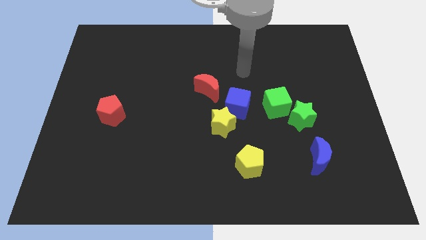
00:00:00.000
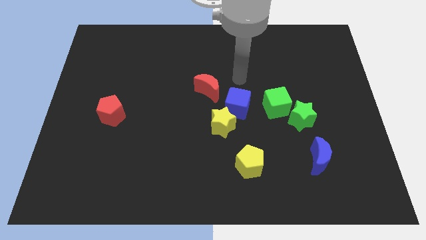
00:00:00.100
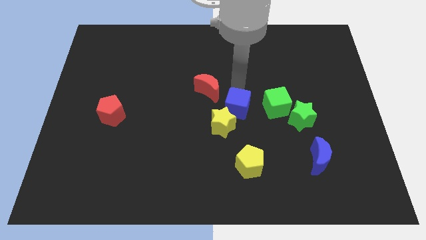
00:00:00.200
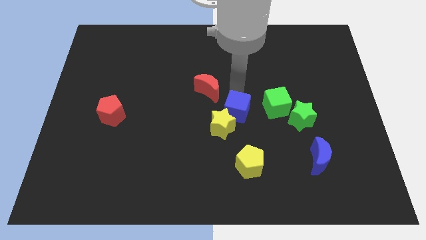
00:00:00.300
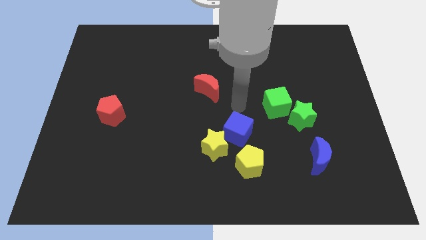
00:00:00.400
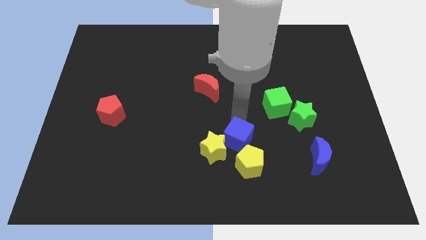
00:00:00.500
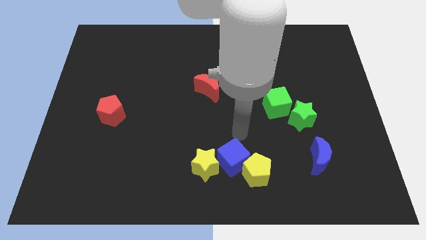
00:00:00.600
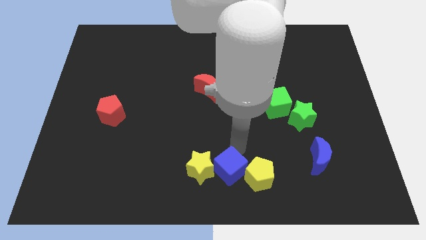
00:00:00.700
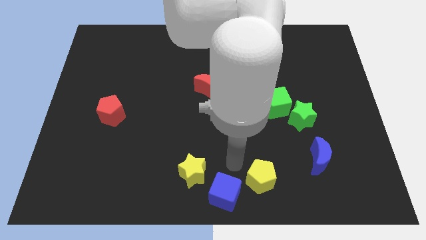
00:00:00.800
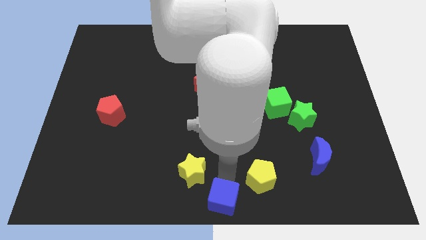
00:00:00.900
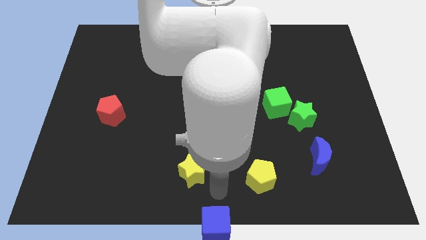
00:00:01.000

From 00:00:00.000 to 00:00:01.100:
pull the yellow star apart from the blue cube

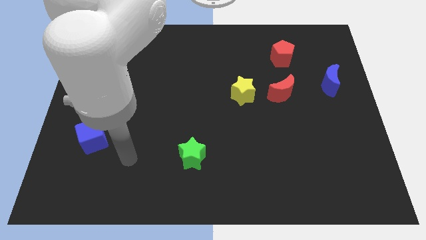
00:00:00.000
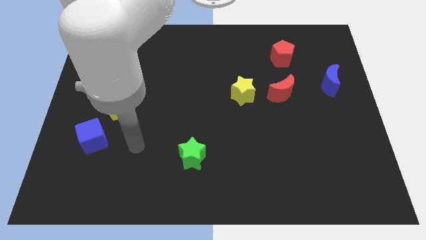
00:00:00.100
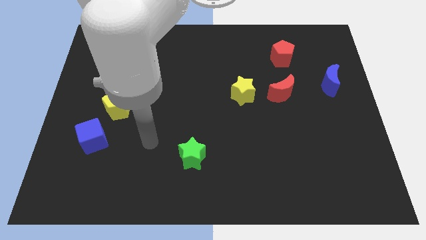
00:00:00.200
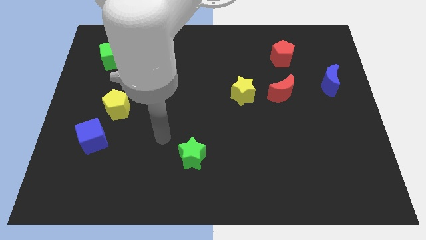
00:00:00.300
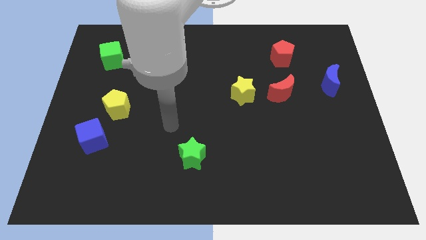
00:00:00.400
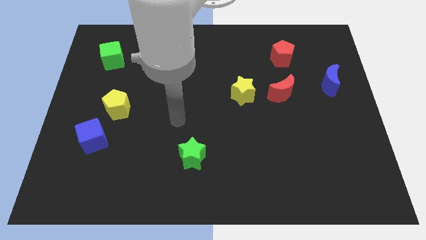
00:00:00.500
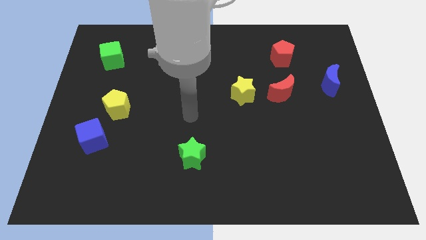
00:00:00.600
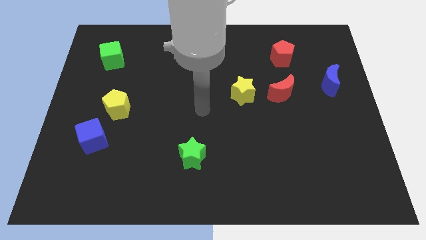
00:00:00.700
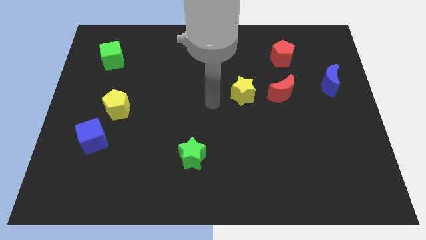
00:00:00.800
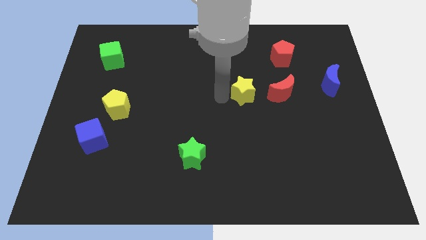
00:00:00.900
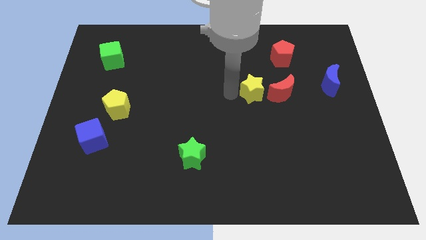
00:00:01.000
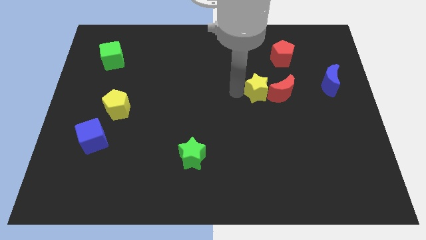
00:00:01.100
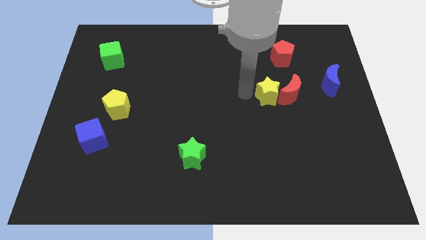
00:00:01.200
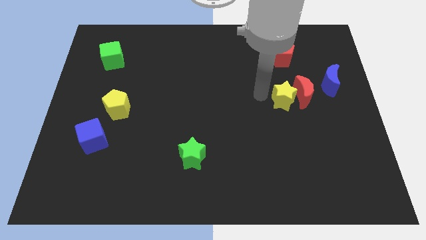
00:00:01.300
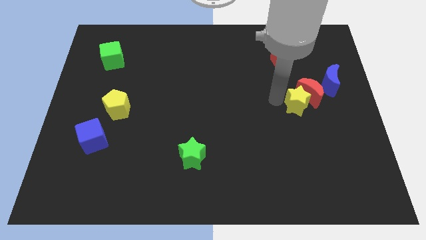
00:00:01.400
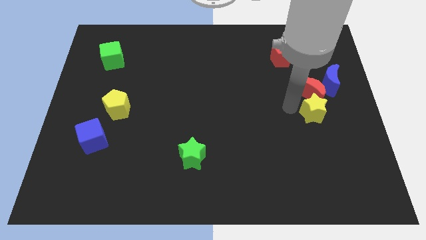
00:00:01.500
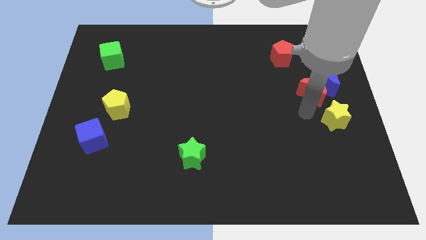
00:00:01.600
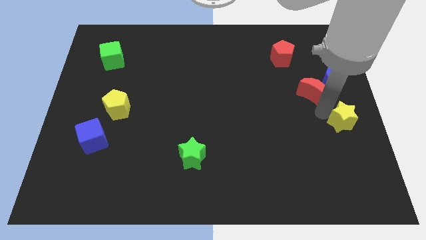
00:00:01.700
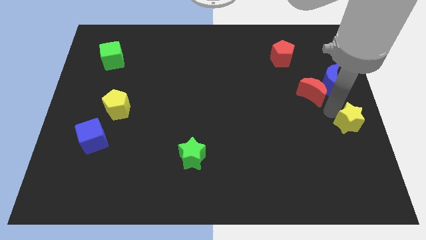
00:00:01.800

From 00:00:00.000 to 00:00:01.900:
move the red moon away from the yellow star

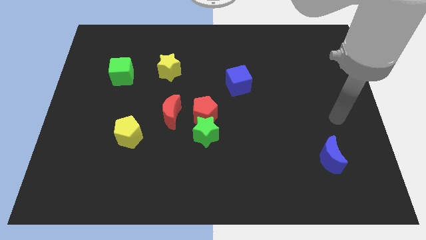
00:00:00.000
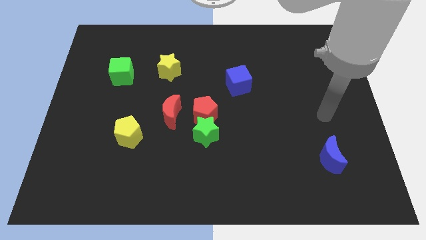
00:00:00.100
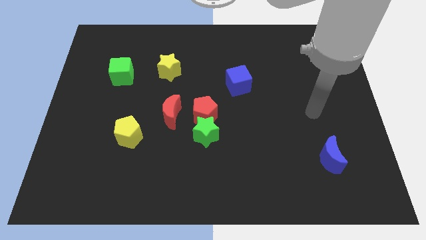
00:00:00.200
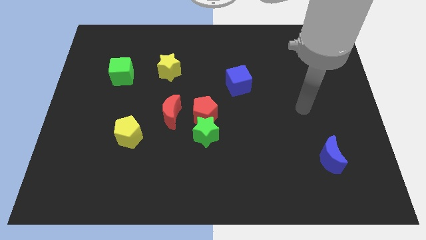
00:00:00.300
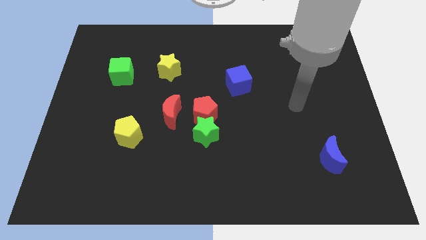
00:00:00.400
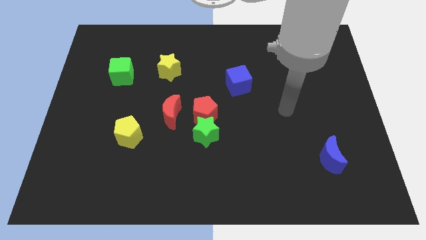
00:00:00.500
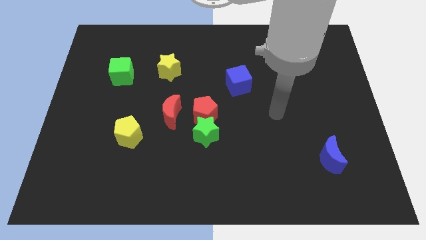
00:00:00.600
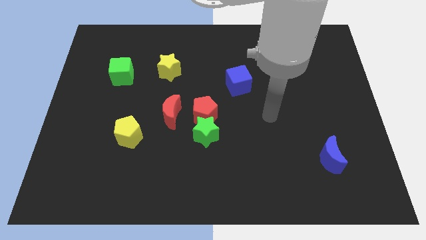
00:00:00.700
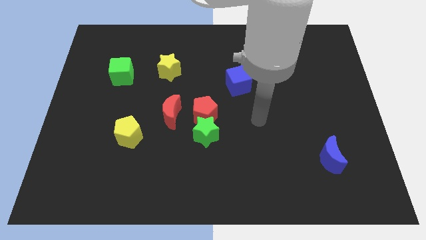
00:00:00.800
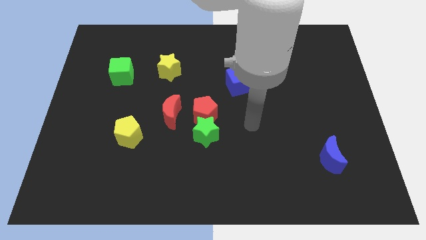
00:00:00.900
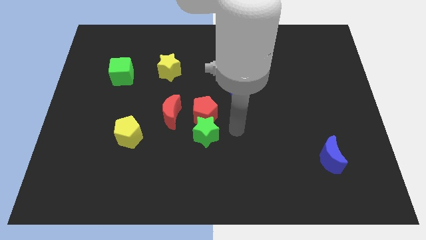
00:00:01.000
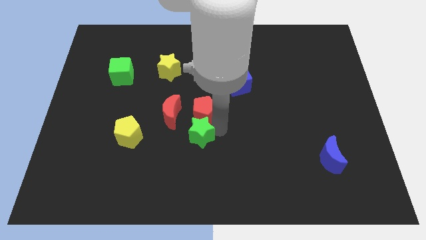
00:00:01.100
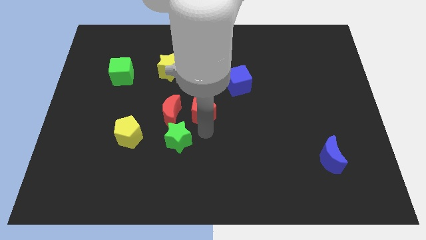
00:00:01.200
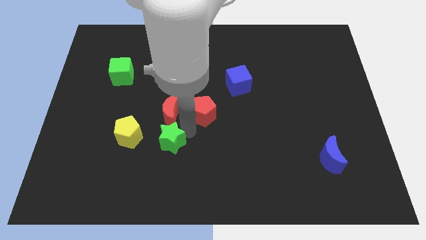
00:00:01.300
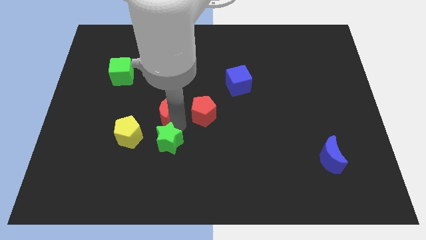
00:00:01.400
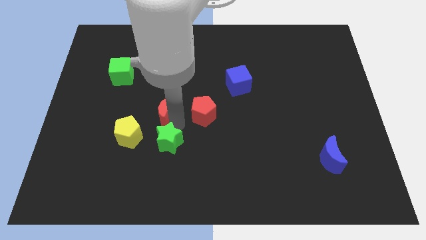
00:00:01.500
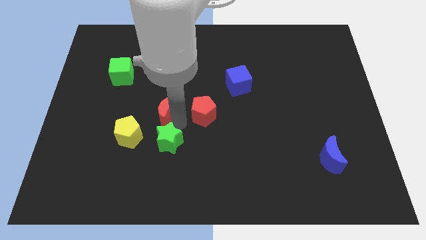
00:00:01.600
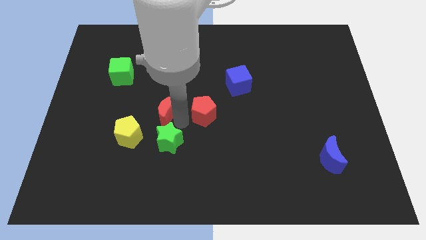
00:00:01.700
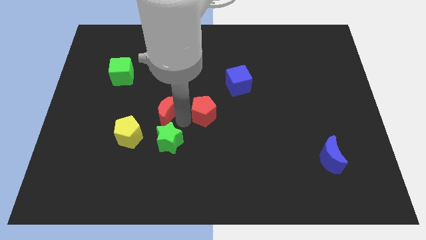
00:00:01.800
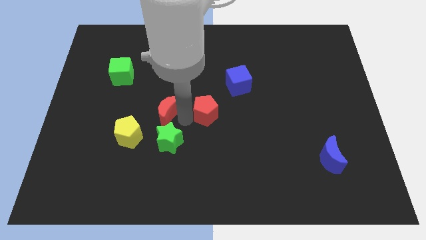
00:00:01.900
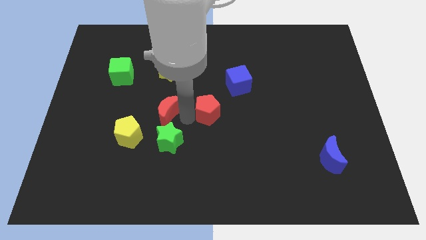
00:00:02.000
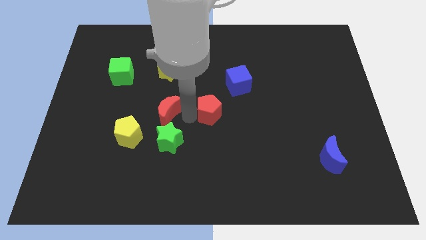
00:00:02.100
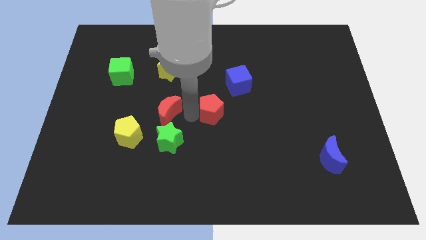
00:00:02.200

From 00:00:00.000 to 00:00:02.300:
pull the red pentagon apart from the green star and red moon

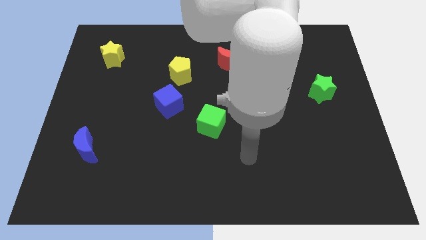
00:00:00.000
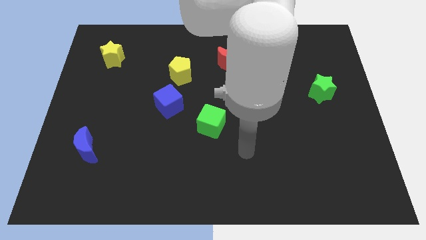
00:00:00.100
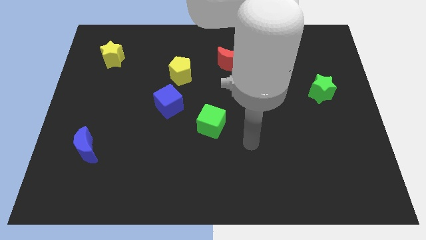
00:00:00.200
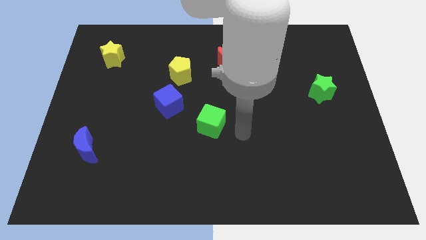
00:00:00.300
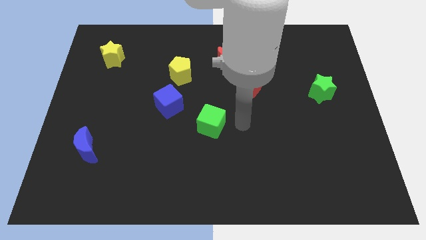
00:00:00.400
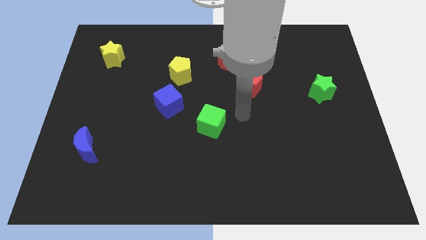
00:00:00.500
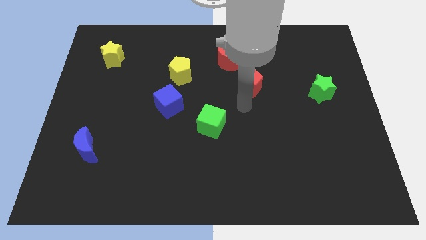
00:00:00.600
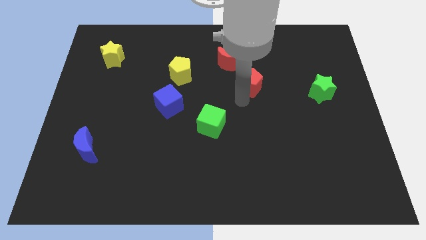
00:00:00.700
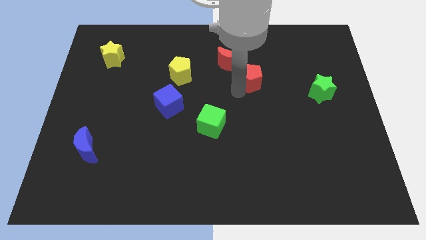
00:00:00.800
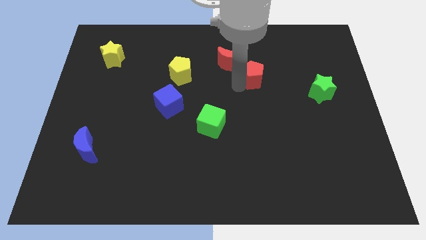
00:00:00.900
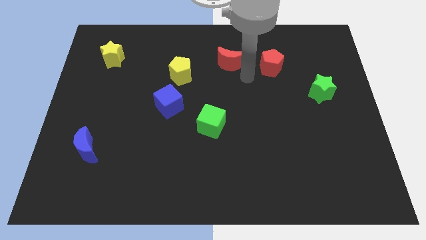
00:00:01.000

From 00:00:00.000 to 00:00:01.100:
separate the red moon from the red pentagon

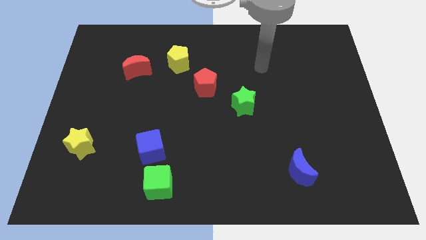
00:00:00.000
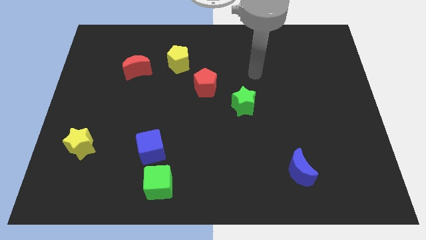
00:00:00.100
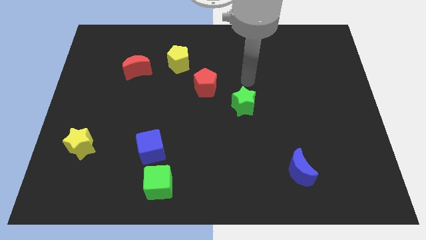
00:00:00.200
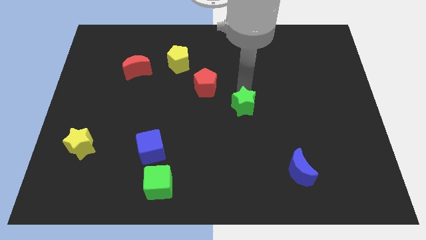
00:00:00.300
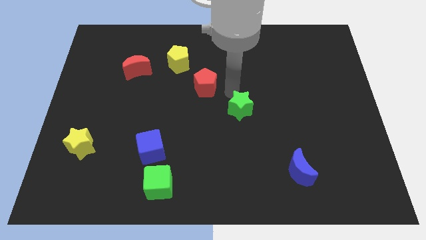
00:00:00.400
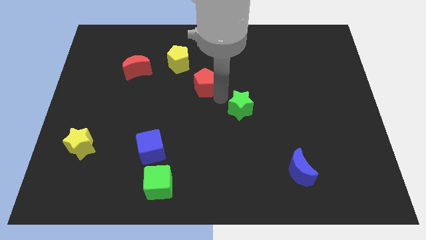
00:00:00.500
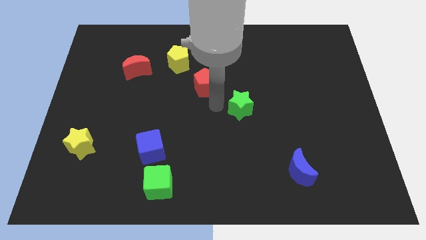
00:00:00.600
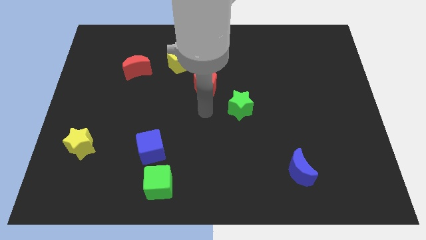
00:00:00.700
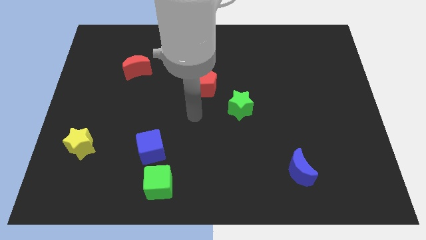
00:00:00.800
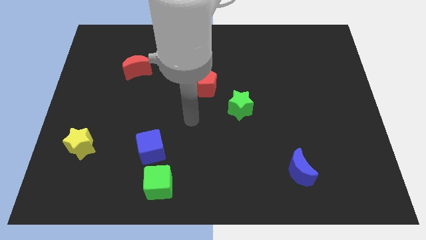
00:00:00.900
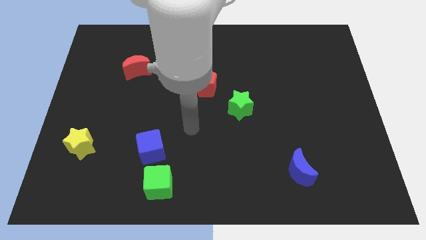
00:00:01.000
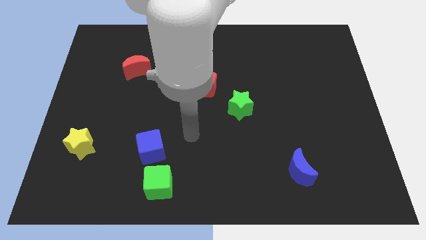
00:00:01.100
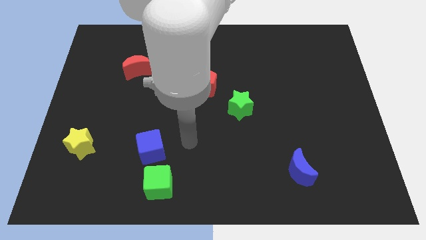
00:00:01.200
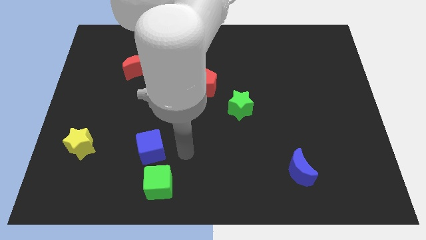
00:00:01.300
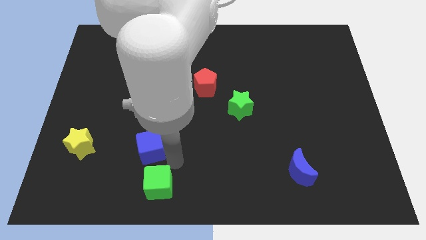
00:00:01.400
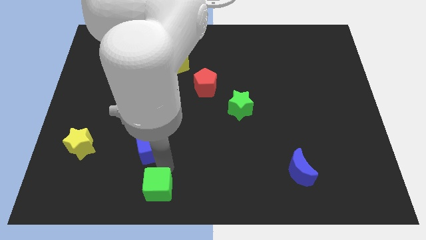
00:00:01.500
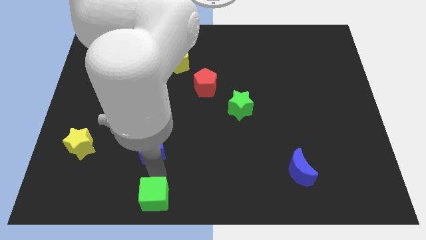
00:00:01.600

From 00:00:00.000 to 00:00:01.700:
move the blue cube away from the green cube

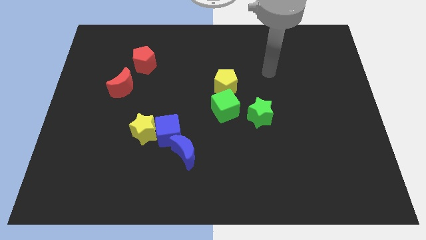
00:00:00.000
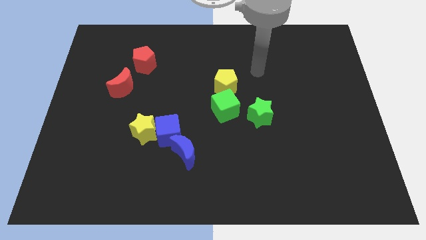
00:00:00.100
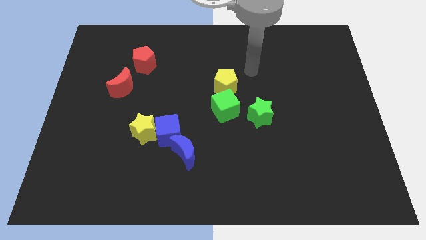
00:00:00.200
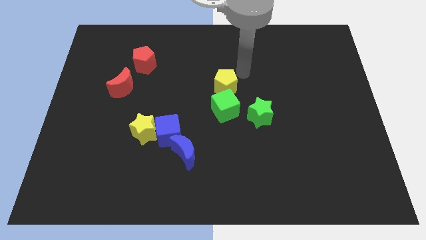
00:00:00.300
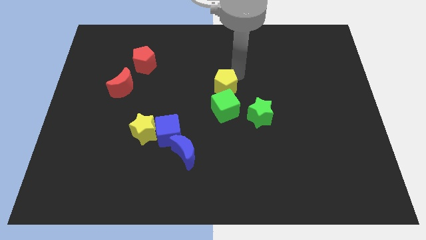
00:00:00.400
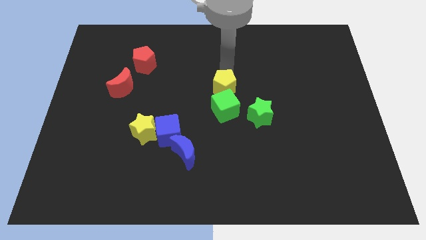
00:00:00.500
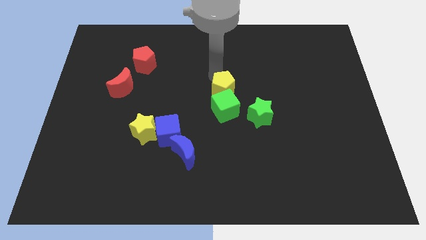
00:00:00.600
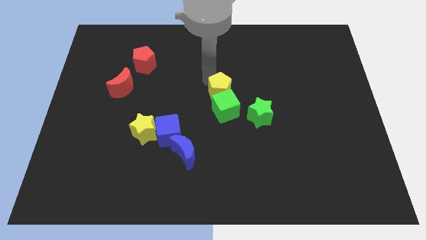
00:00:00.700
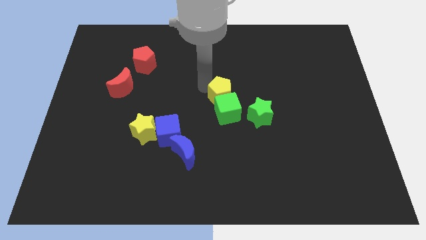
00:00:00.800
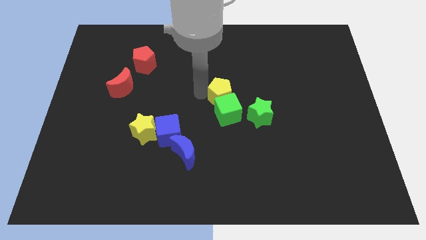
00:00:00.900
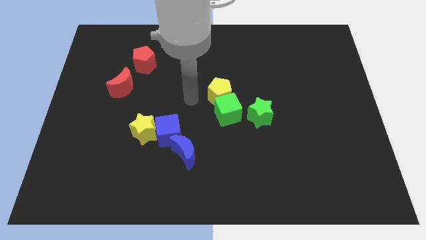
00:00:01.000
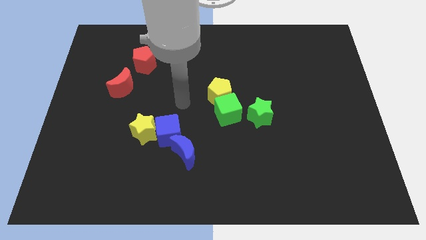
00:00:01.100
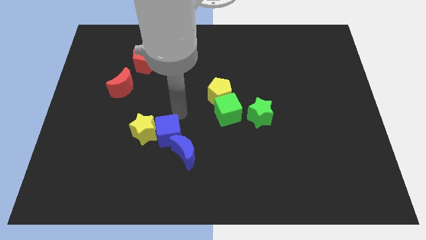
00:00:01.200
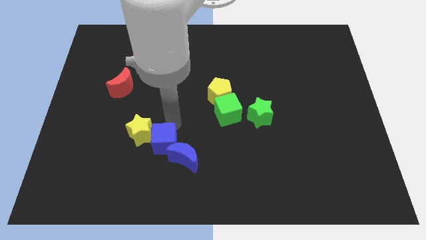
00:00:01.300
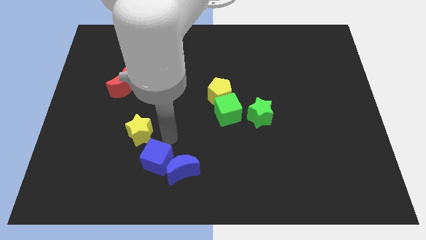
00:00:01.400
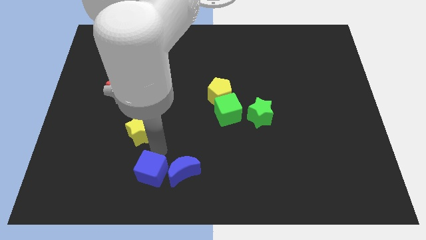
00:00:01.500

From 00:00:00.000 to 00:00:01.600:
move the yellow star away from the blue cube
